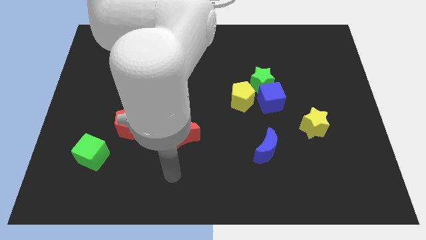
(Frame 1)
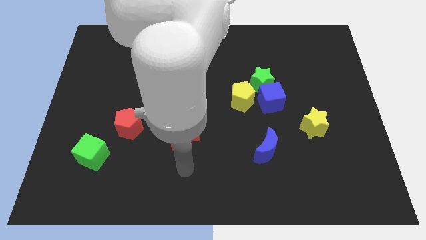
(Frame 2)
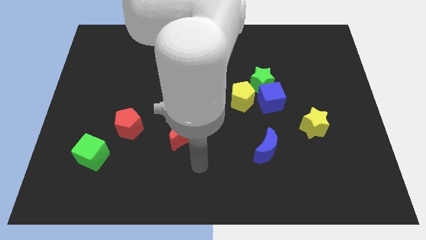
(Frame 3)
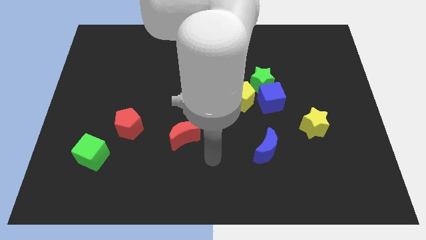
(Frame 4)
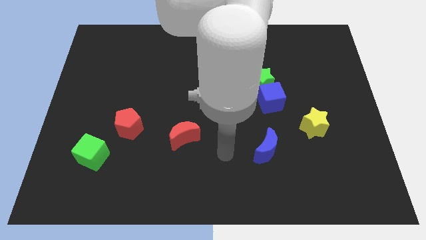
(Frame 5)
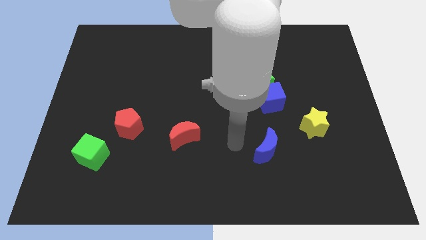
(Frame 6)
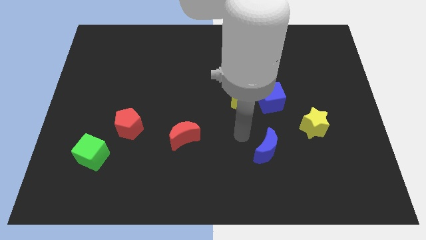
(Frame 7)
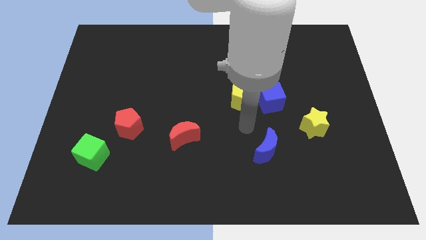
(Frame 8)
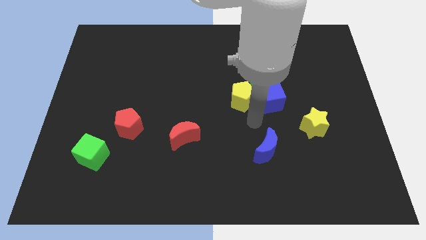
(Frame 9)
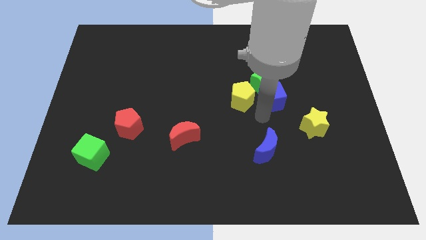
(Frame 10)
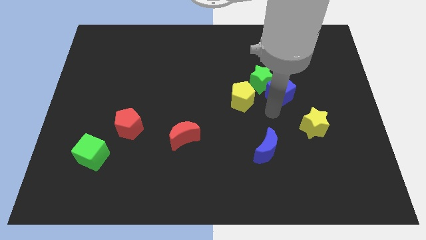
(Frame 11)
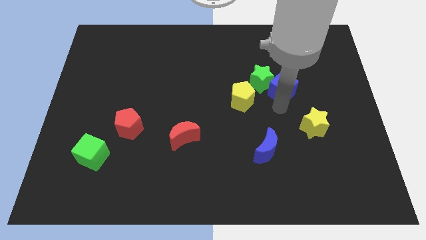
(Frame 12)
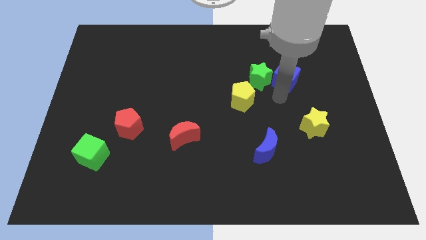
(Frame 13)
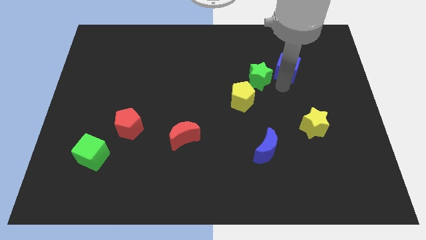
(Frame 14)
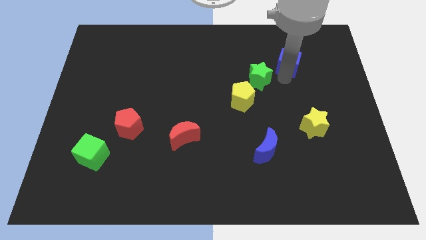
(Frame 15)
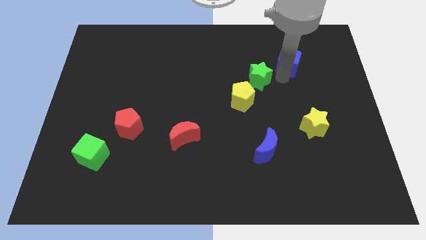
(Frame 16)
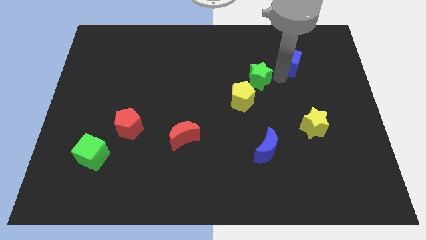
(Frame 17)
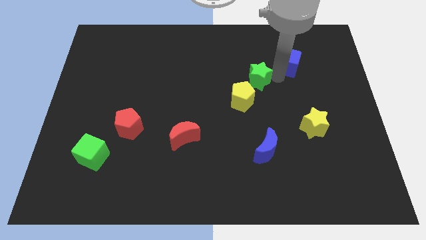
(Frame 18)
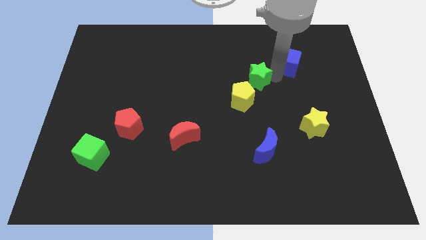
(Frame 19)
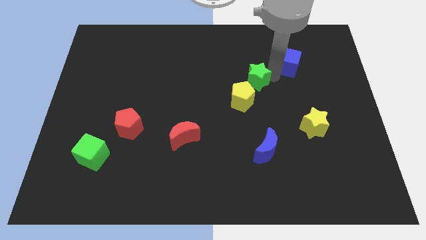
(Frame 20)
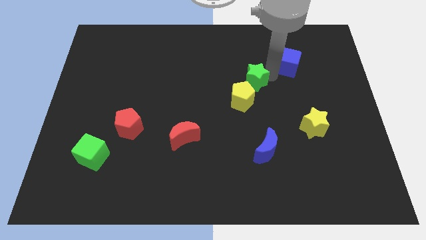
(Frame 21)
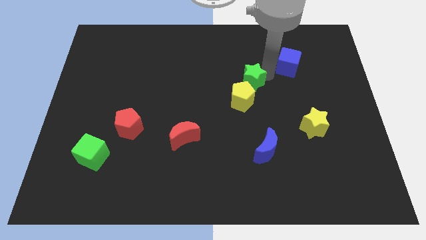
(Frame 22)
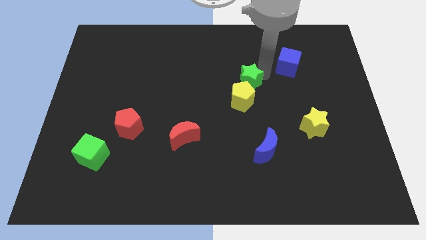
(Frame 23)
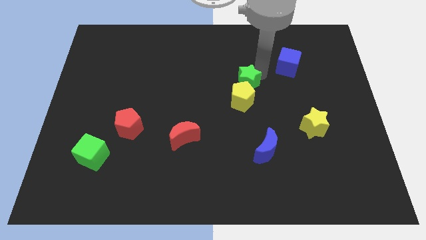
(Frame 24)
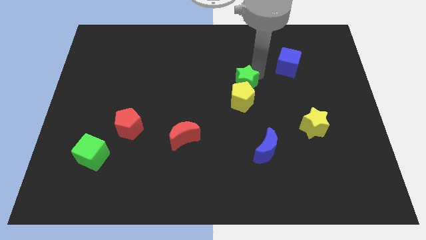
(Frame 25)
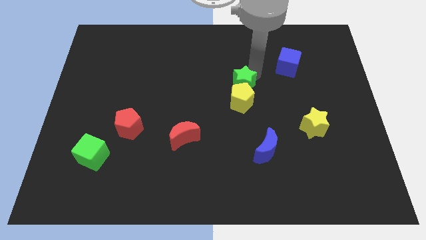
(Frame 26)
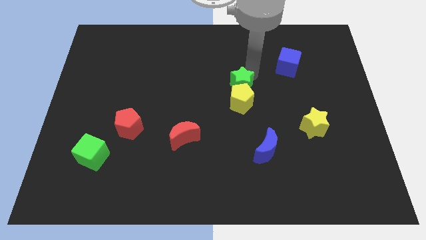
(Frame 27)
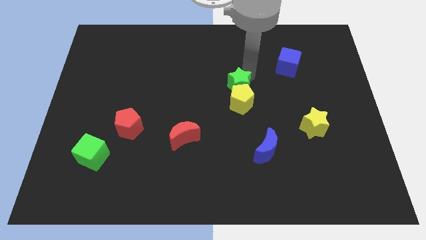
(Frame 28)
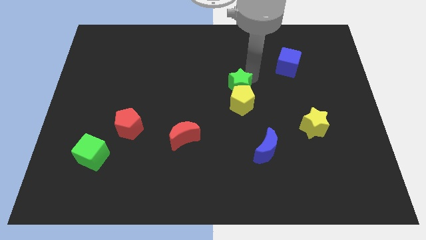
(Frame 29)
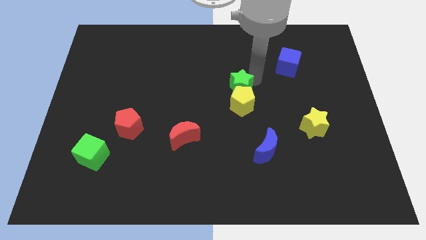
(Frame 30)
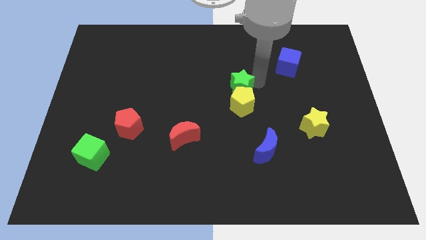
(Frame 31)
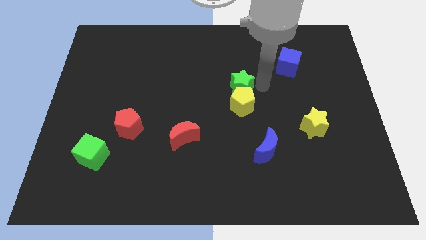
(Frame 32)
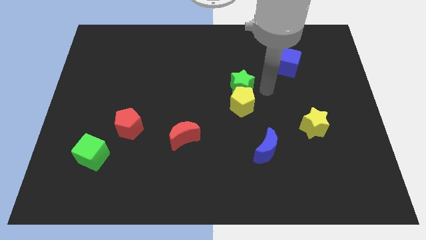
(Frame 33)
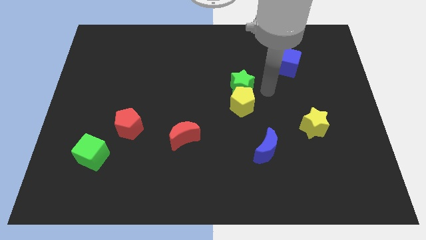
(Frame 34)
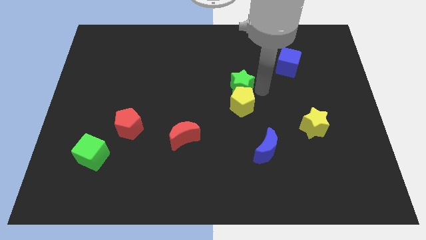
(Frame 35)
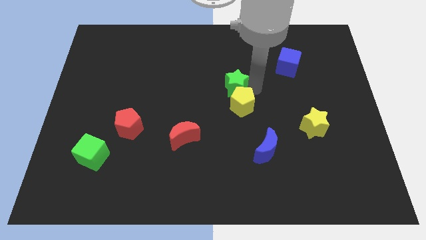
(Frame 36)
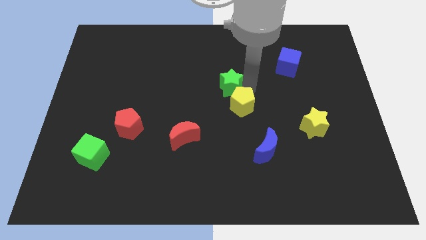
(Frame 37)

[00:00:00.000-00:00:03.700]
move the green star left slightly

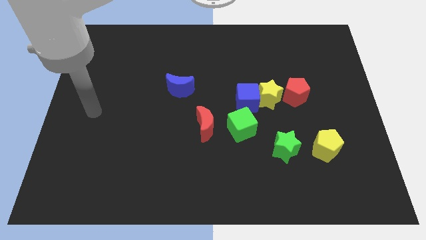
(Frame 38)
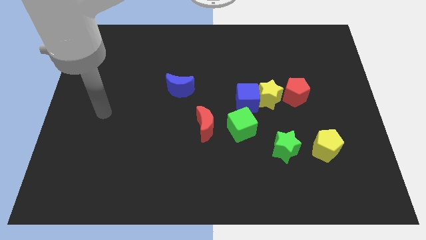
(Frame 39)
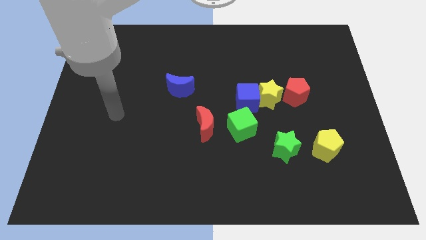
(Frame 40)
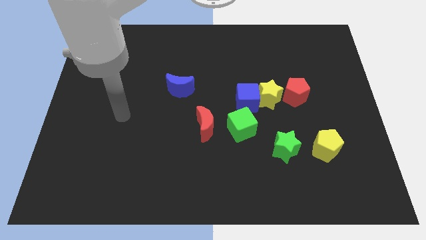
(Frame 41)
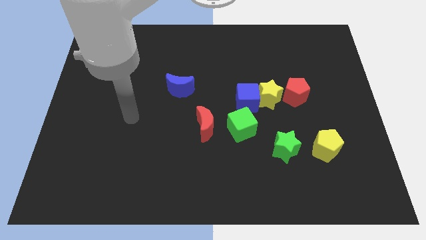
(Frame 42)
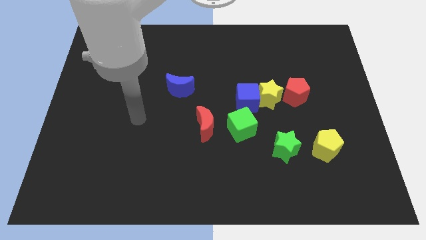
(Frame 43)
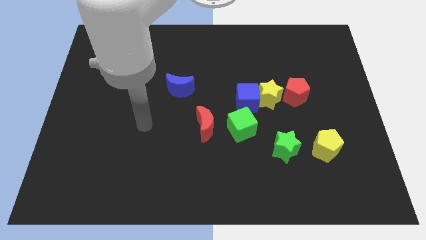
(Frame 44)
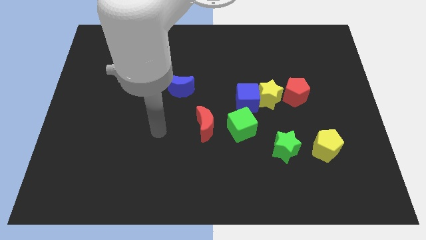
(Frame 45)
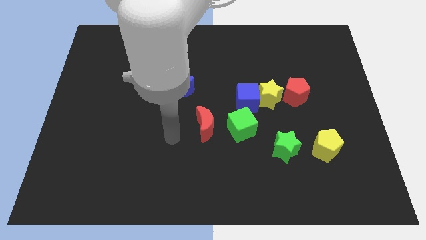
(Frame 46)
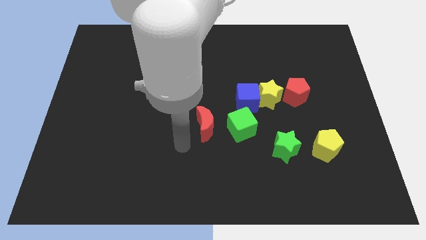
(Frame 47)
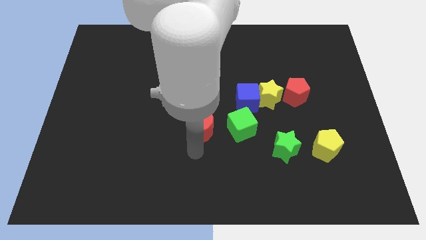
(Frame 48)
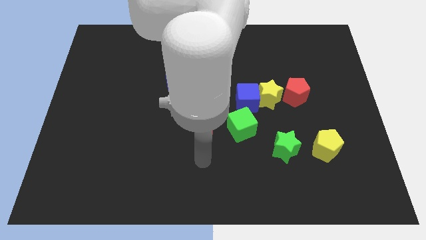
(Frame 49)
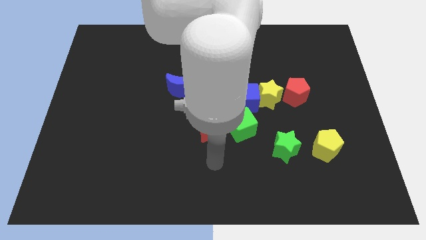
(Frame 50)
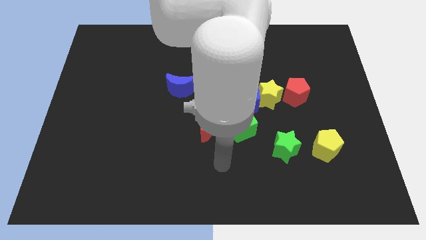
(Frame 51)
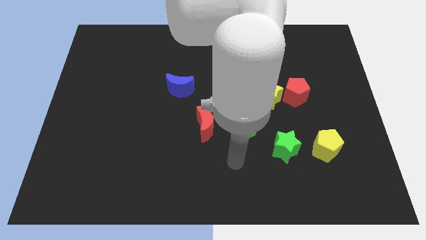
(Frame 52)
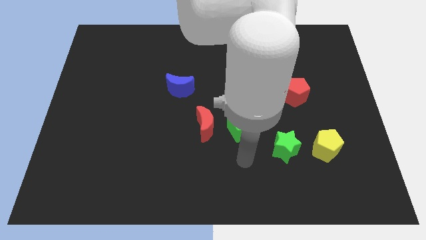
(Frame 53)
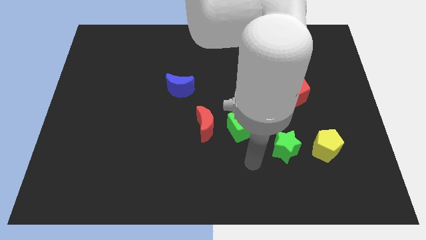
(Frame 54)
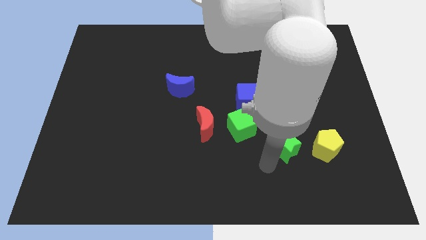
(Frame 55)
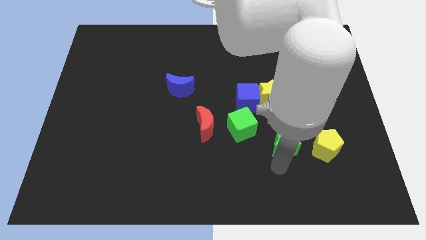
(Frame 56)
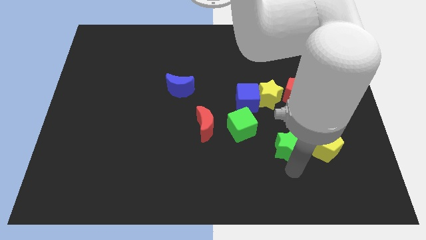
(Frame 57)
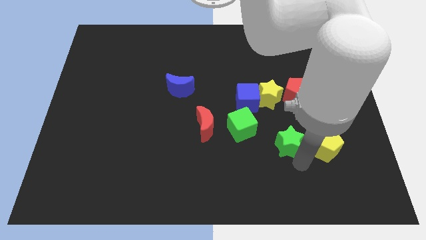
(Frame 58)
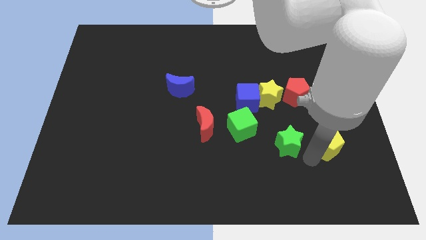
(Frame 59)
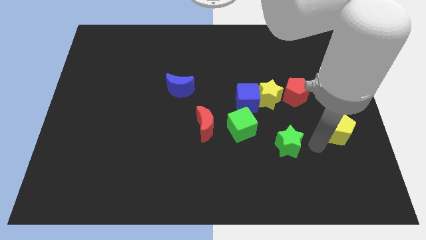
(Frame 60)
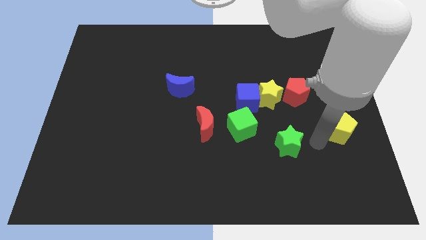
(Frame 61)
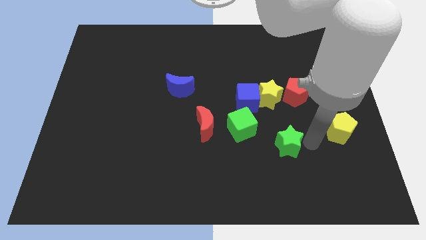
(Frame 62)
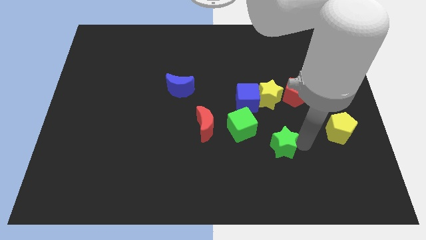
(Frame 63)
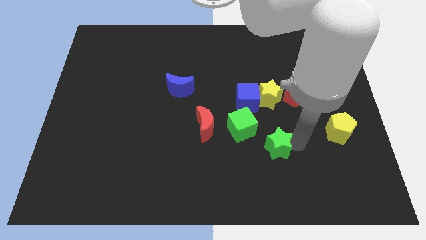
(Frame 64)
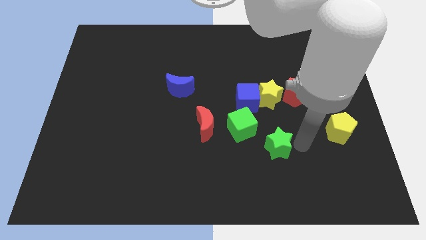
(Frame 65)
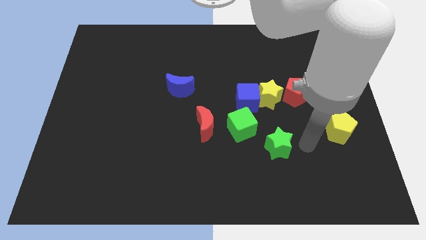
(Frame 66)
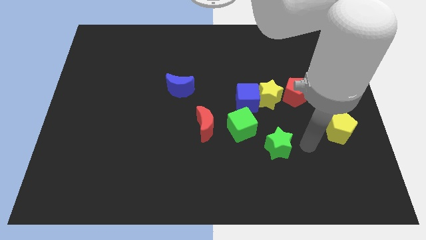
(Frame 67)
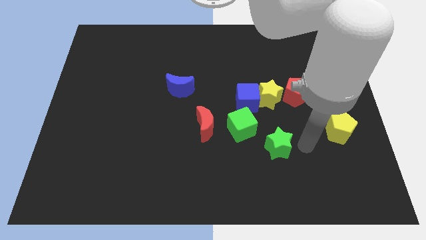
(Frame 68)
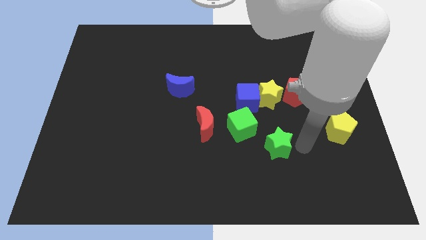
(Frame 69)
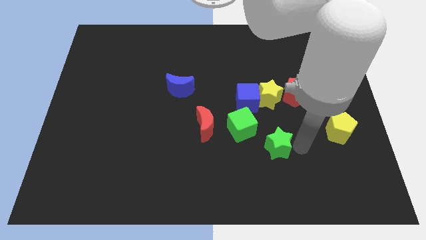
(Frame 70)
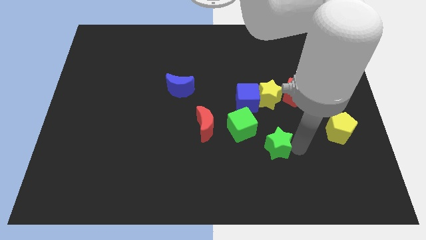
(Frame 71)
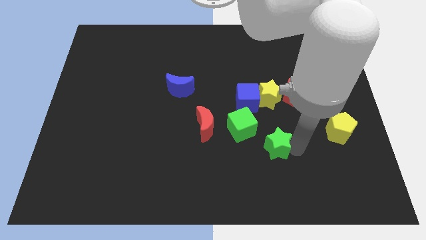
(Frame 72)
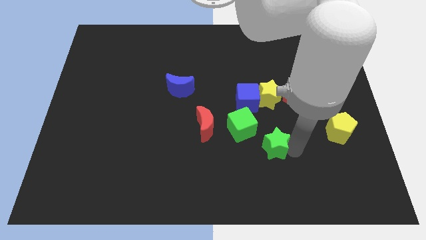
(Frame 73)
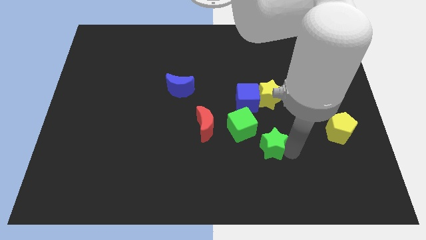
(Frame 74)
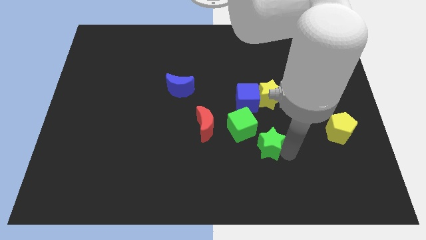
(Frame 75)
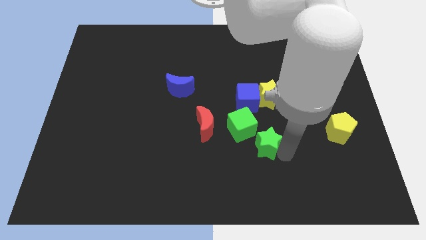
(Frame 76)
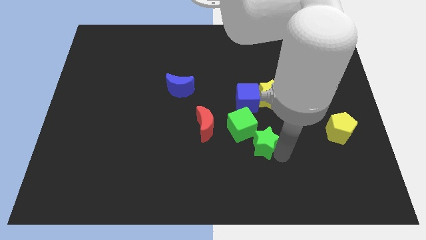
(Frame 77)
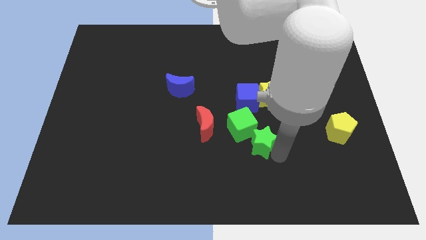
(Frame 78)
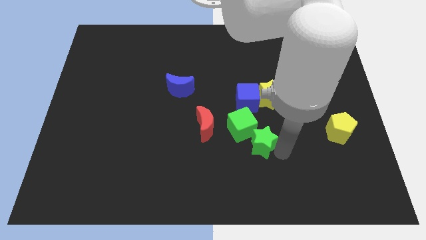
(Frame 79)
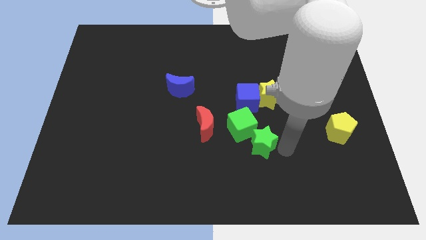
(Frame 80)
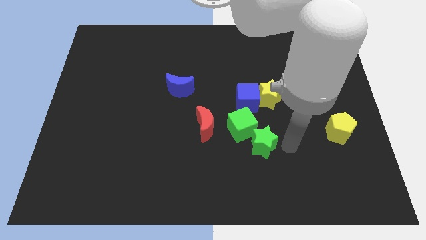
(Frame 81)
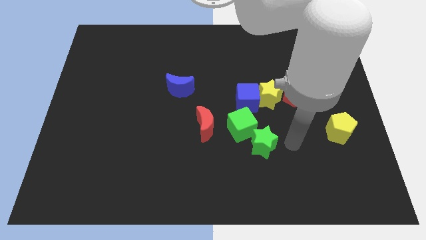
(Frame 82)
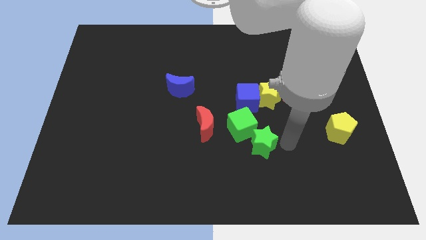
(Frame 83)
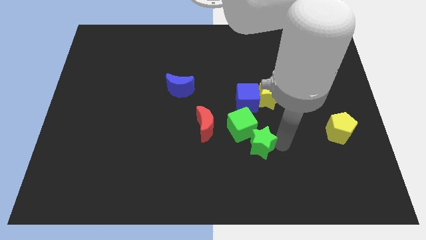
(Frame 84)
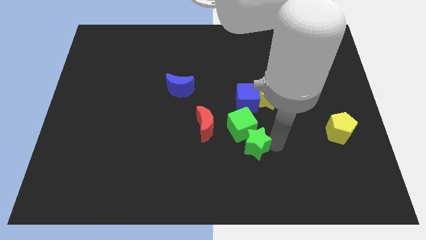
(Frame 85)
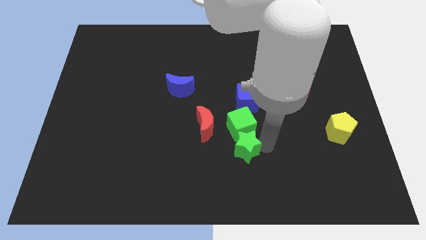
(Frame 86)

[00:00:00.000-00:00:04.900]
slightly move the green star to the left
